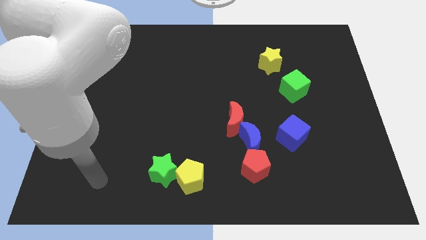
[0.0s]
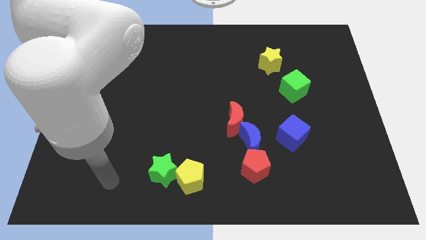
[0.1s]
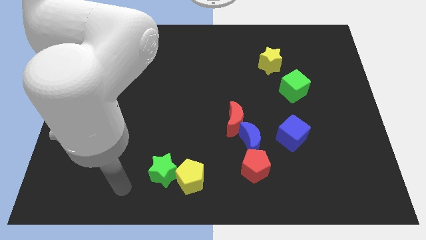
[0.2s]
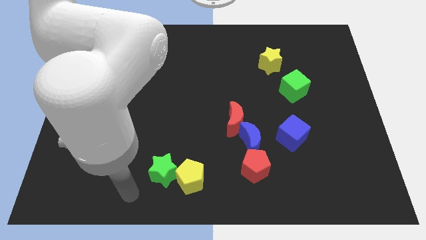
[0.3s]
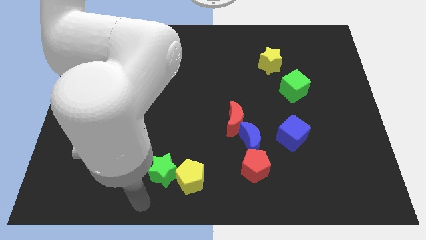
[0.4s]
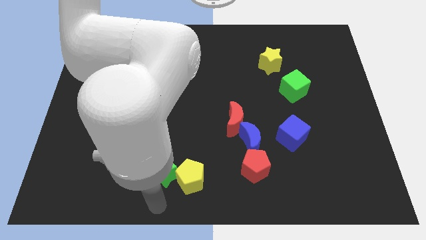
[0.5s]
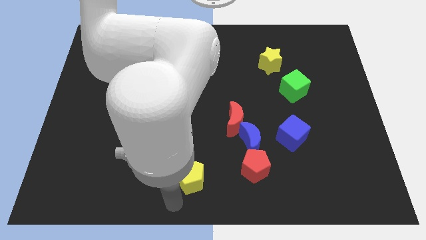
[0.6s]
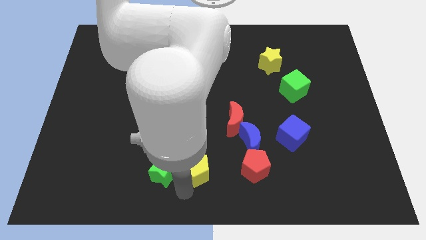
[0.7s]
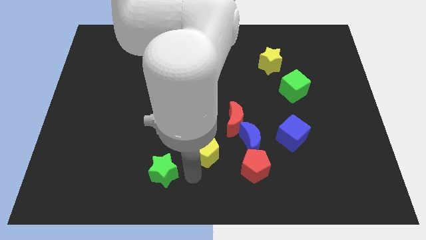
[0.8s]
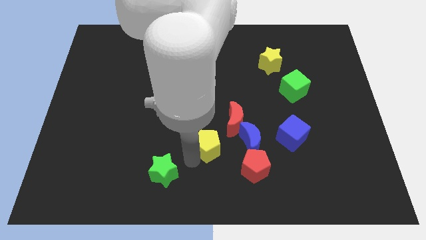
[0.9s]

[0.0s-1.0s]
move the green star away from the yellow pentagon

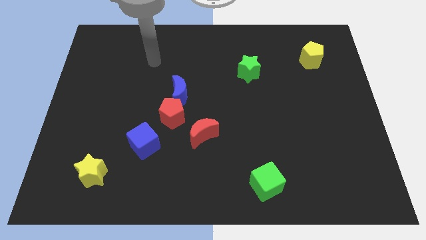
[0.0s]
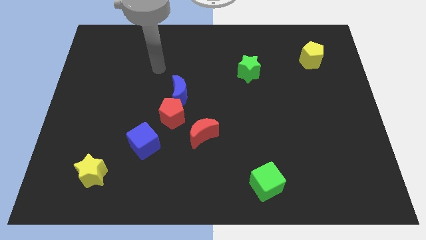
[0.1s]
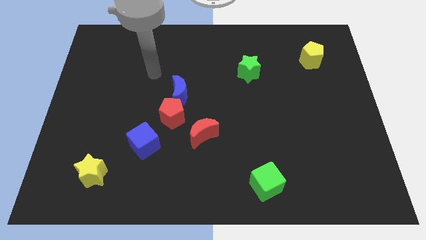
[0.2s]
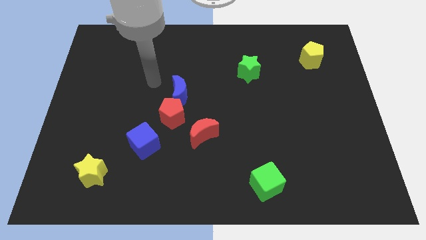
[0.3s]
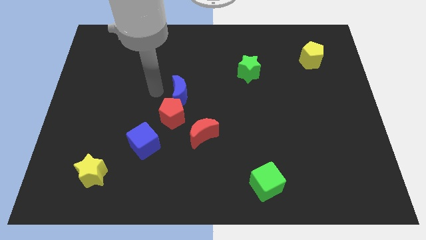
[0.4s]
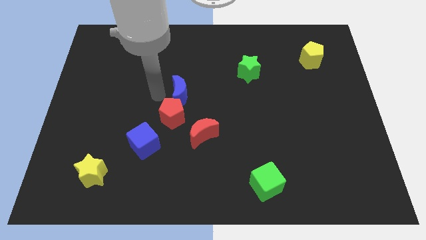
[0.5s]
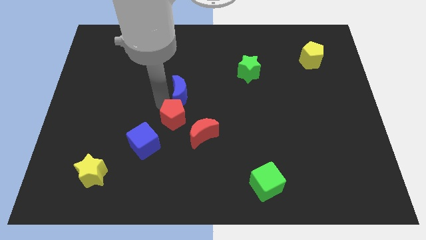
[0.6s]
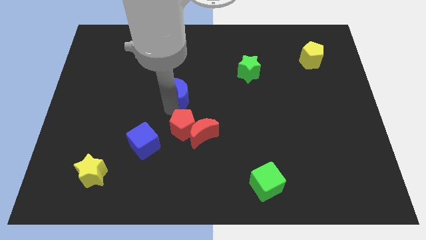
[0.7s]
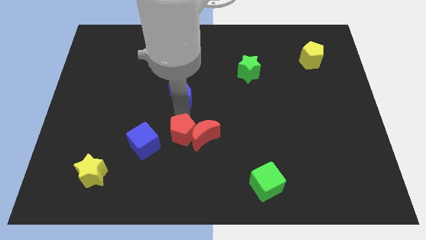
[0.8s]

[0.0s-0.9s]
pull the blue moon apart from the red pentagon

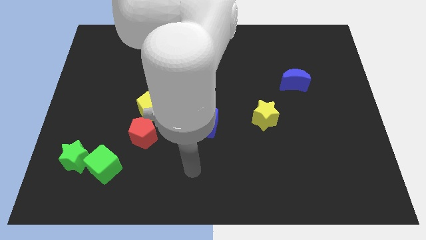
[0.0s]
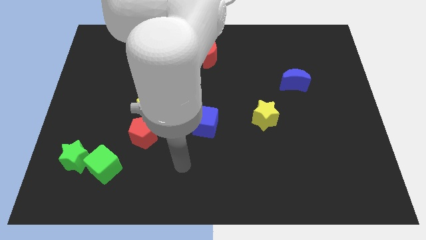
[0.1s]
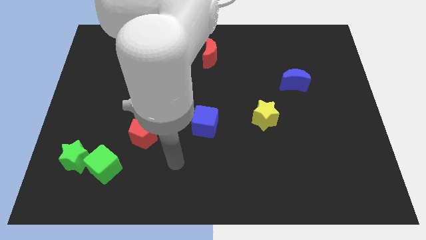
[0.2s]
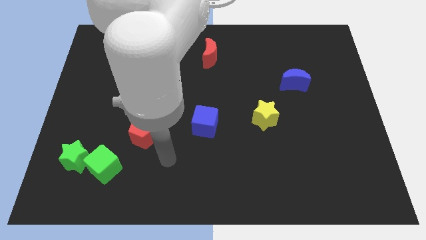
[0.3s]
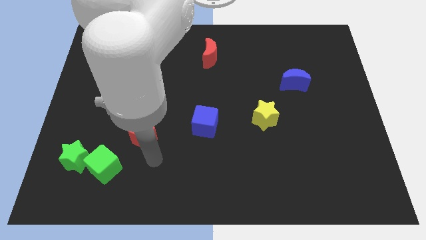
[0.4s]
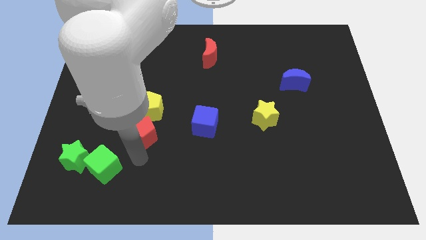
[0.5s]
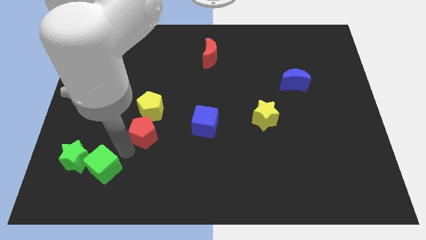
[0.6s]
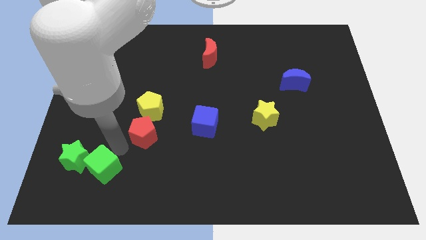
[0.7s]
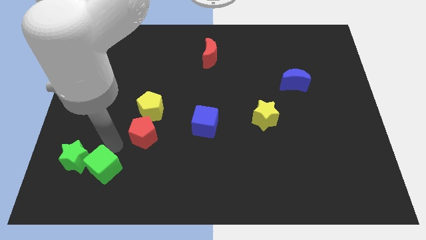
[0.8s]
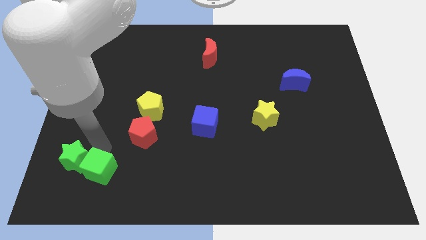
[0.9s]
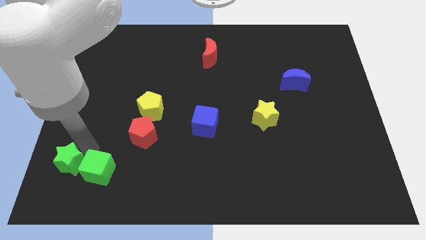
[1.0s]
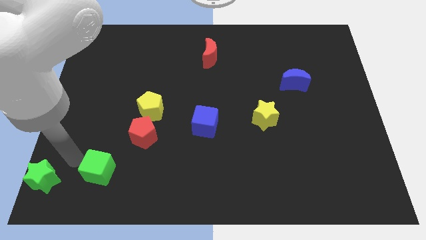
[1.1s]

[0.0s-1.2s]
move the green cube away from the green star

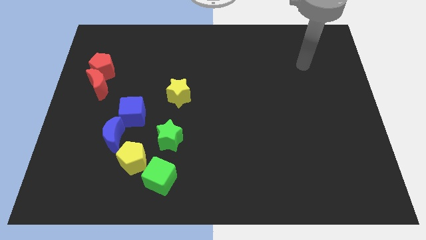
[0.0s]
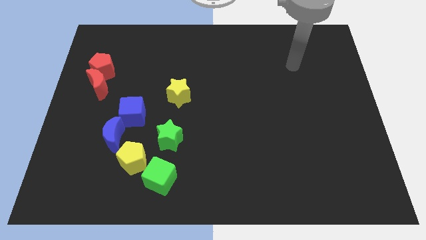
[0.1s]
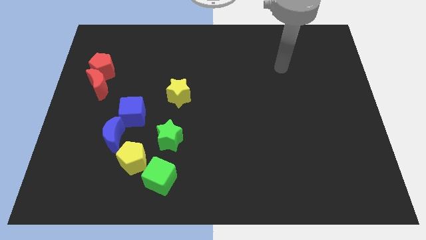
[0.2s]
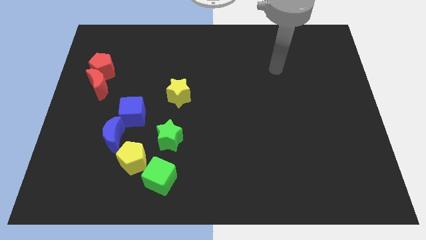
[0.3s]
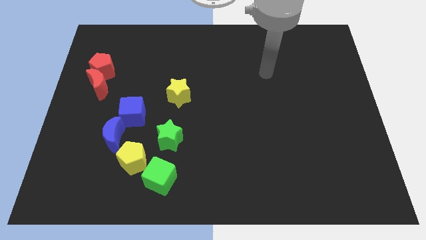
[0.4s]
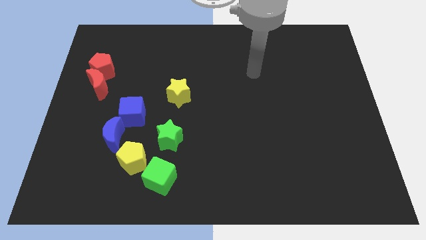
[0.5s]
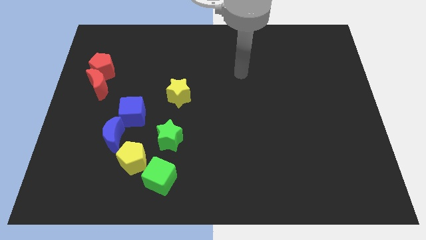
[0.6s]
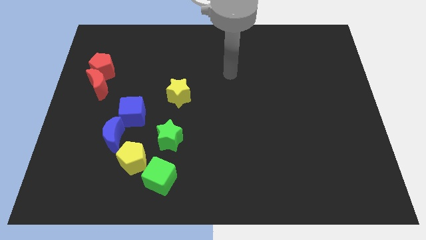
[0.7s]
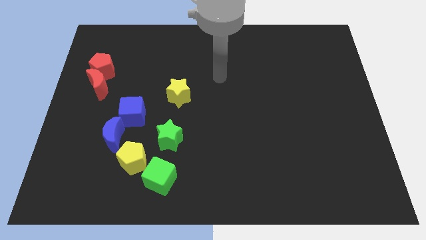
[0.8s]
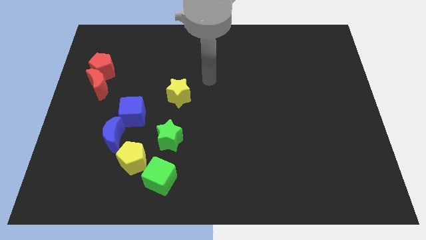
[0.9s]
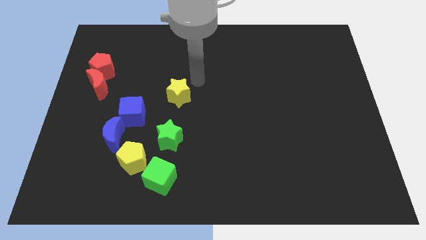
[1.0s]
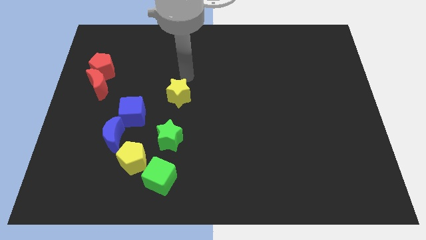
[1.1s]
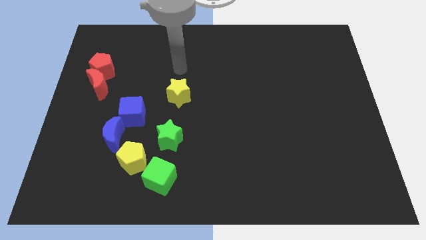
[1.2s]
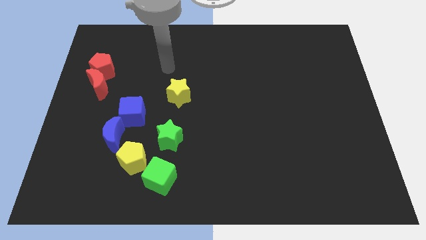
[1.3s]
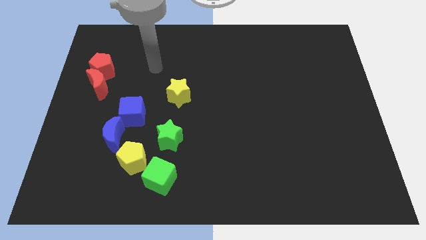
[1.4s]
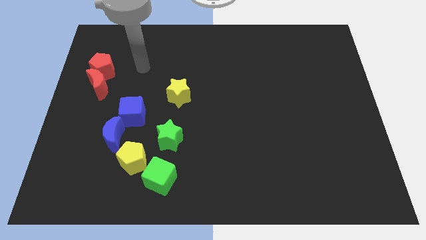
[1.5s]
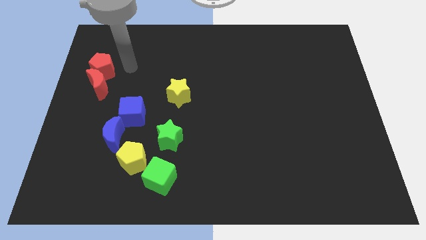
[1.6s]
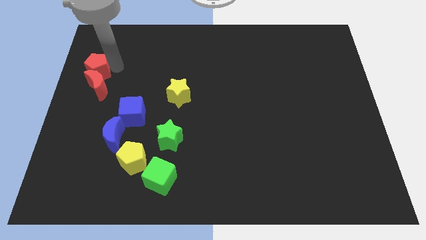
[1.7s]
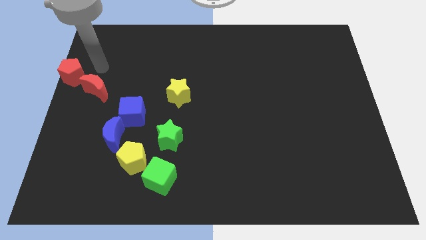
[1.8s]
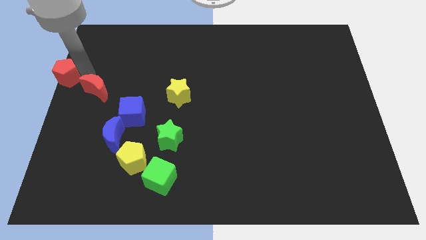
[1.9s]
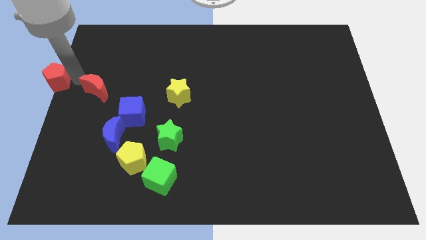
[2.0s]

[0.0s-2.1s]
pull the red moon apart from the red pentagon

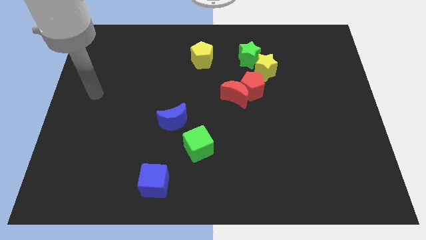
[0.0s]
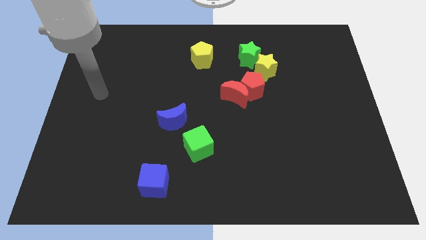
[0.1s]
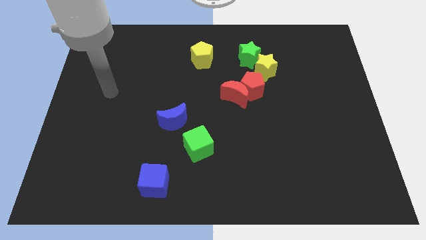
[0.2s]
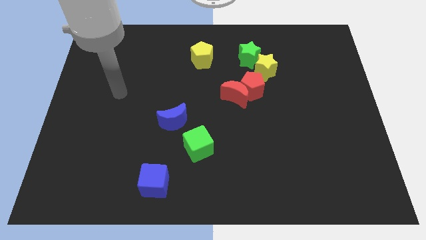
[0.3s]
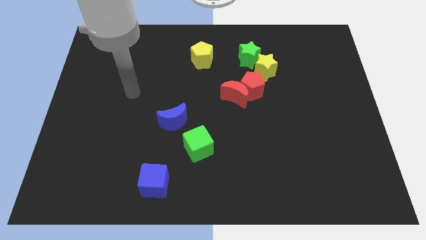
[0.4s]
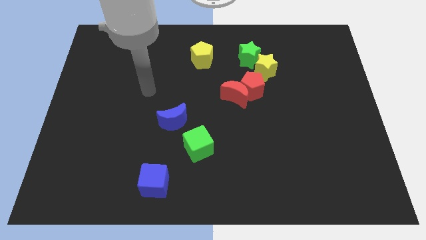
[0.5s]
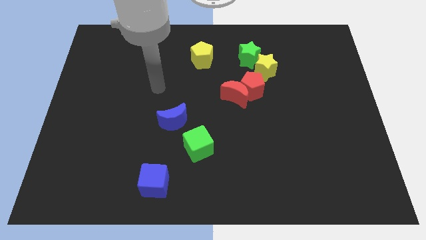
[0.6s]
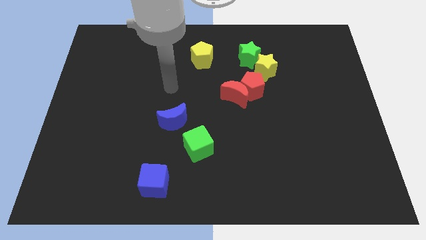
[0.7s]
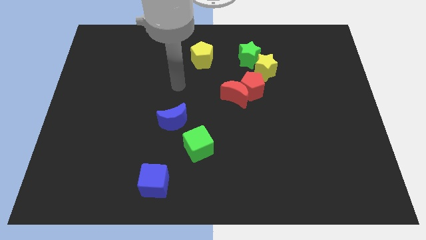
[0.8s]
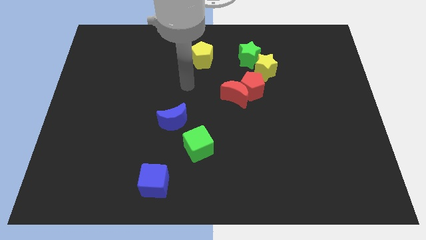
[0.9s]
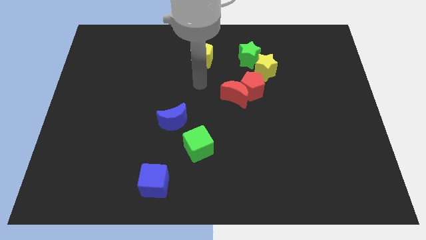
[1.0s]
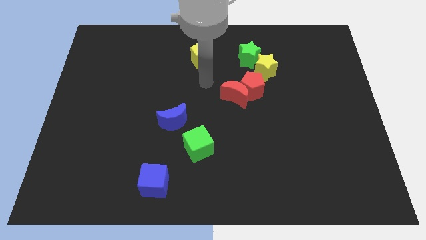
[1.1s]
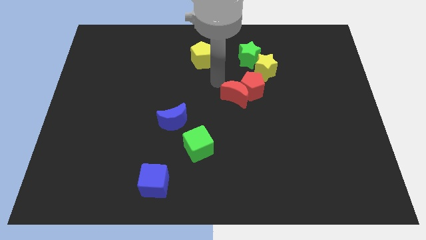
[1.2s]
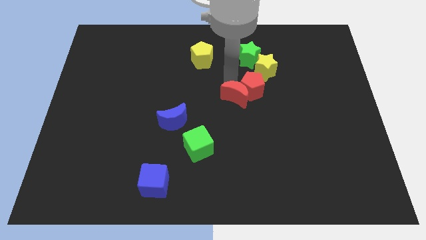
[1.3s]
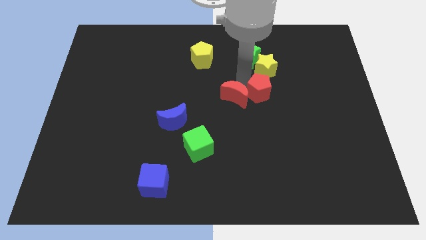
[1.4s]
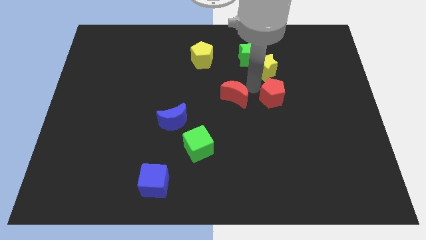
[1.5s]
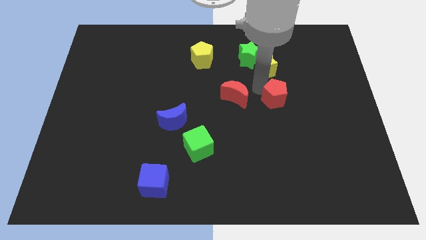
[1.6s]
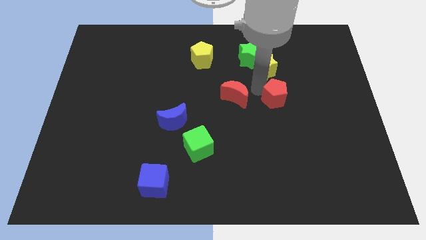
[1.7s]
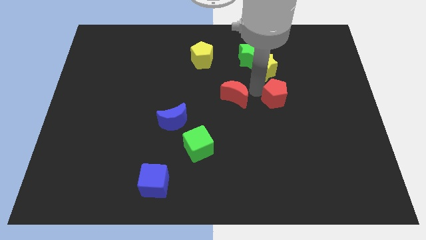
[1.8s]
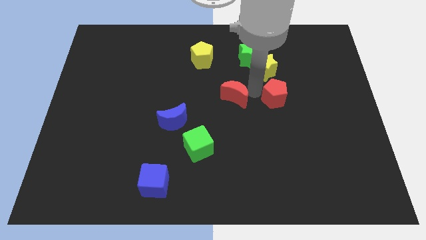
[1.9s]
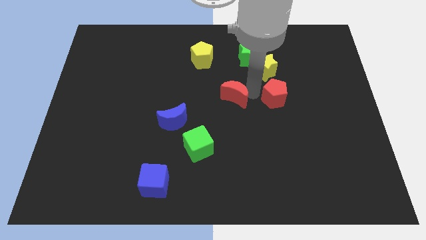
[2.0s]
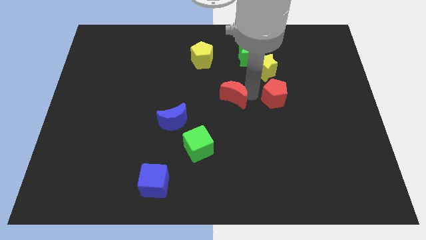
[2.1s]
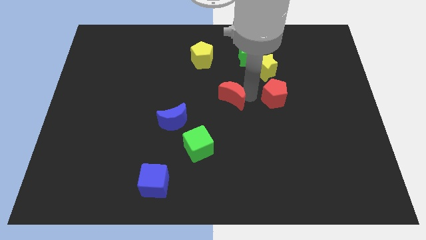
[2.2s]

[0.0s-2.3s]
move the red moon away from the red pentagon

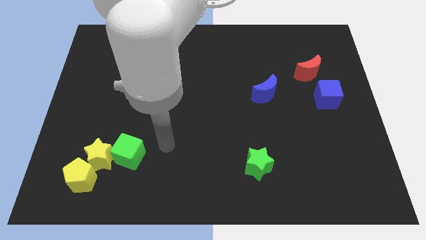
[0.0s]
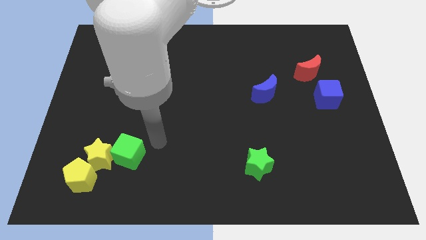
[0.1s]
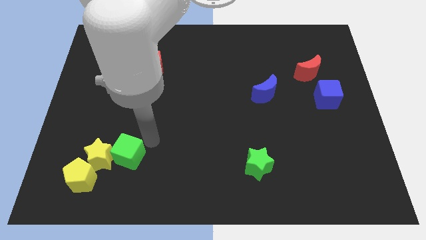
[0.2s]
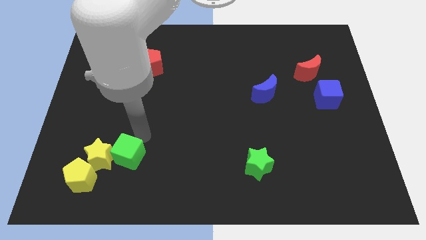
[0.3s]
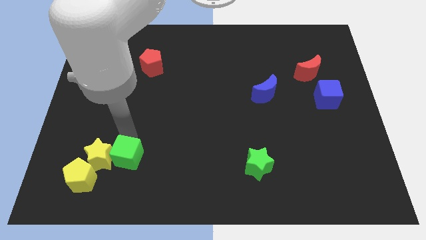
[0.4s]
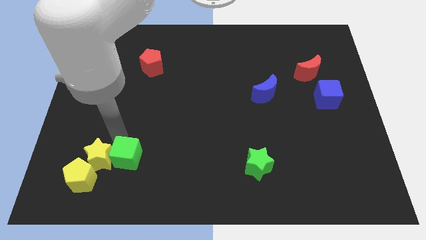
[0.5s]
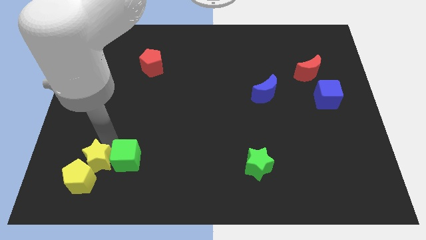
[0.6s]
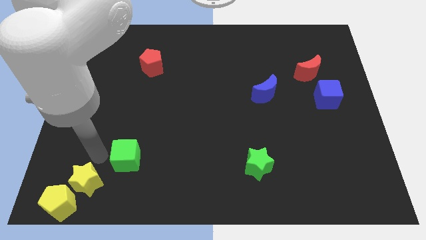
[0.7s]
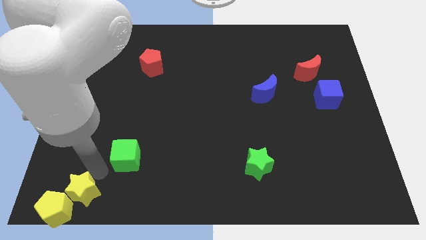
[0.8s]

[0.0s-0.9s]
move the green cube away from the yellow star

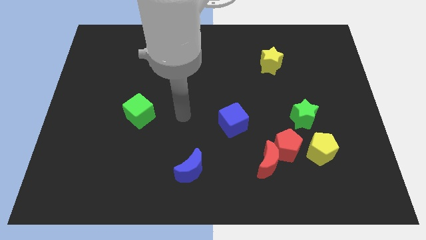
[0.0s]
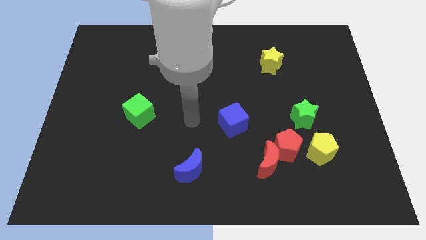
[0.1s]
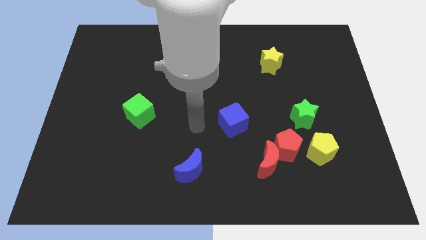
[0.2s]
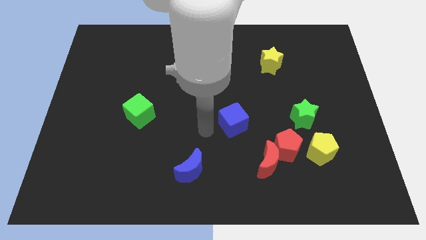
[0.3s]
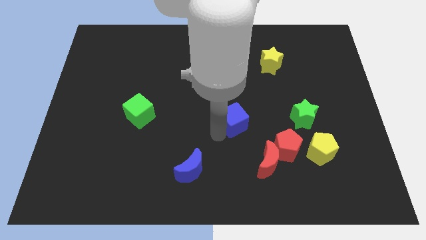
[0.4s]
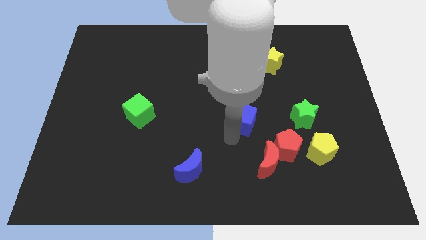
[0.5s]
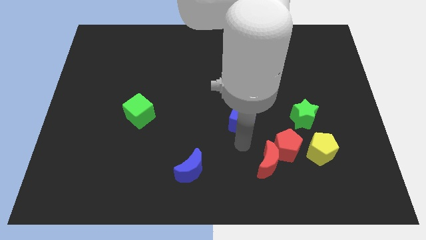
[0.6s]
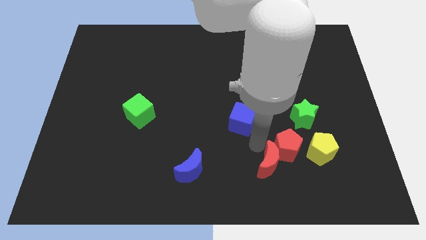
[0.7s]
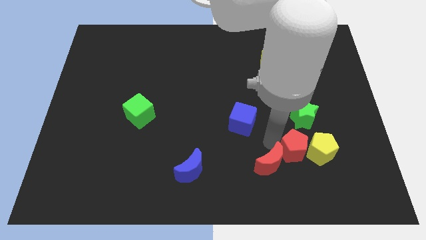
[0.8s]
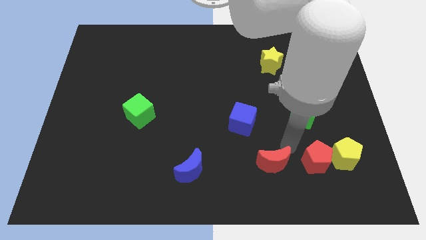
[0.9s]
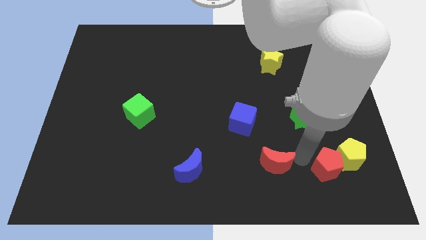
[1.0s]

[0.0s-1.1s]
separate the red moon from the red pentagon
